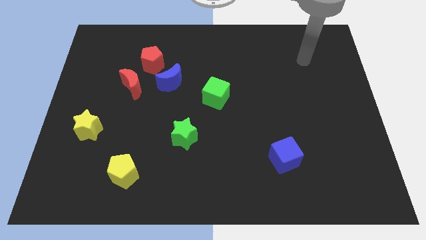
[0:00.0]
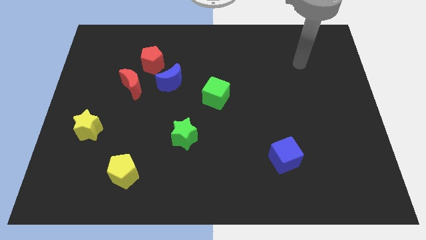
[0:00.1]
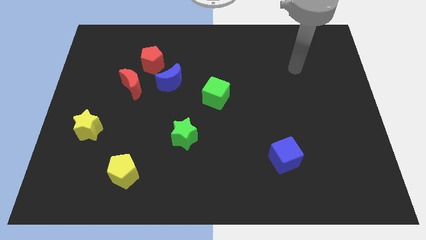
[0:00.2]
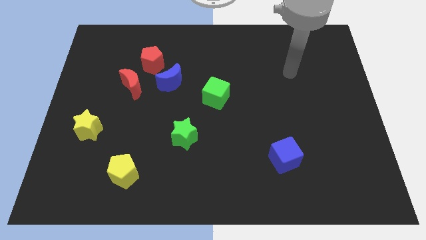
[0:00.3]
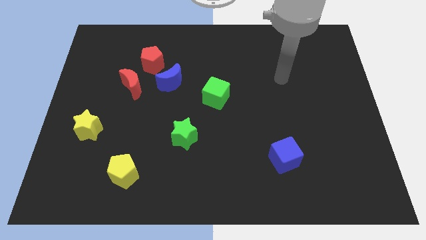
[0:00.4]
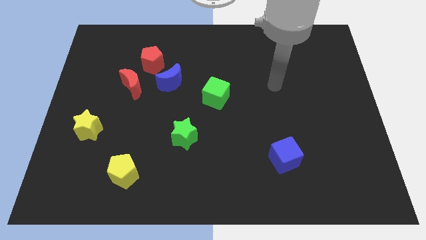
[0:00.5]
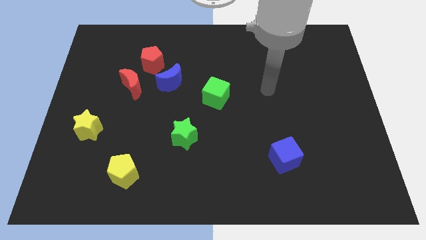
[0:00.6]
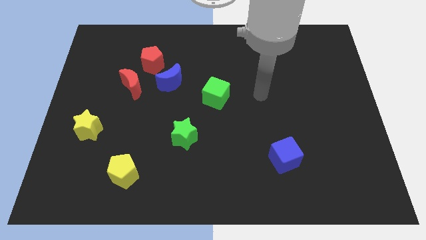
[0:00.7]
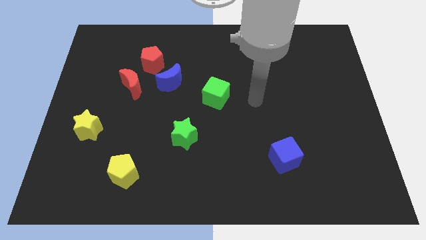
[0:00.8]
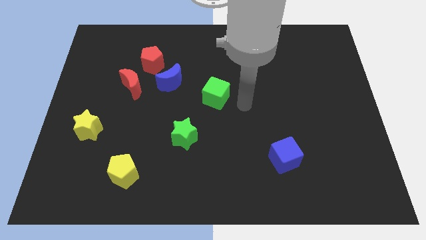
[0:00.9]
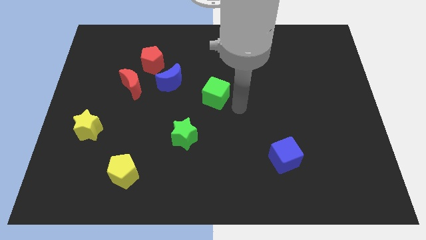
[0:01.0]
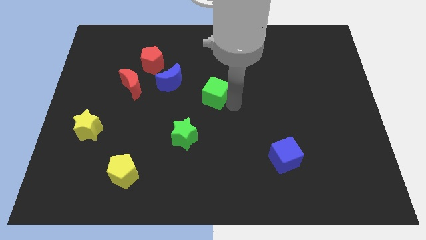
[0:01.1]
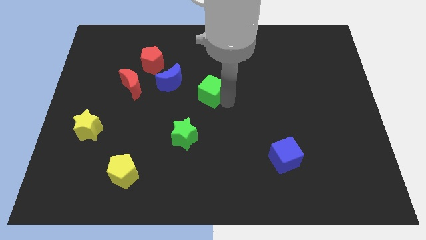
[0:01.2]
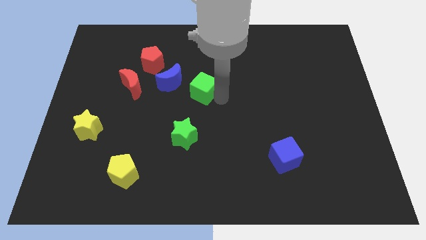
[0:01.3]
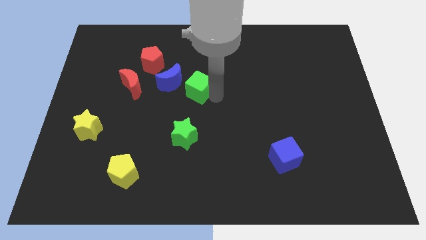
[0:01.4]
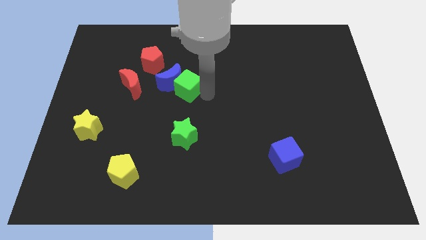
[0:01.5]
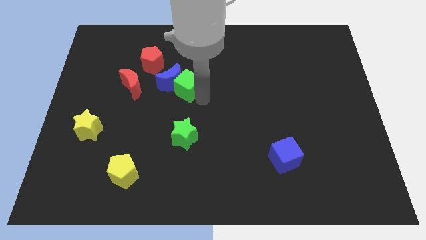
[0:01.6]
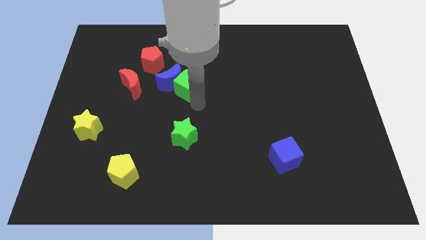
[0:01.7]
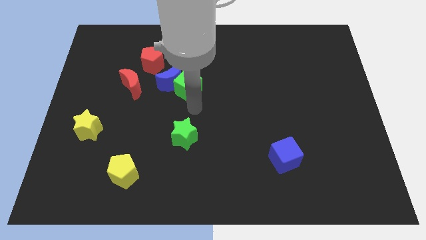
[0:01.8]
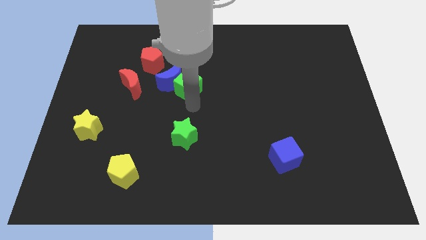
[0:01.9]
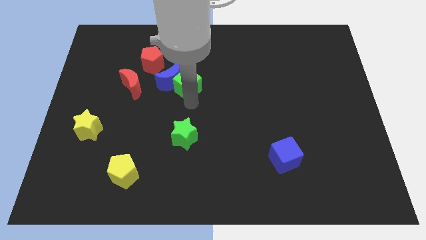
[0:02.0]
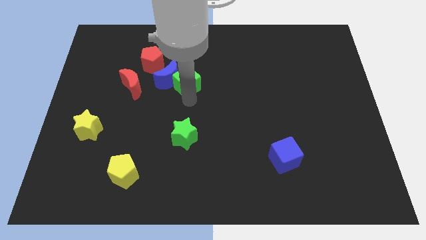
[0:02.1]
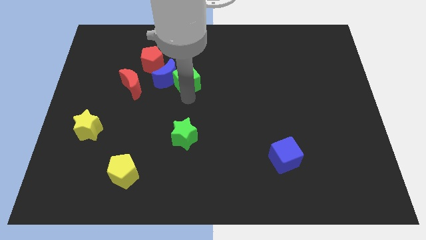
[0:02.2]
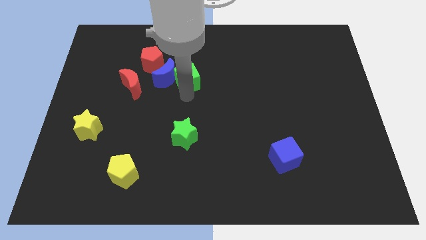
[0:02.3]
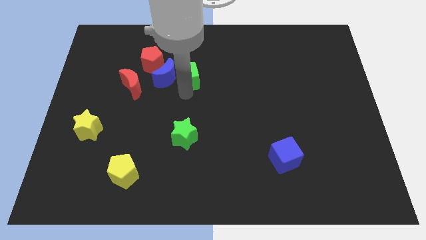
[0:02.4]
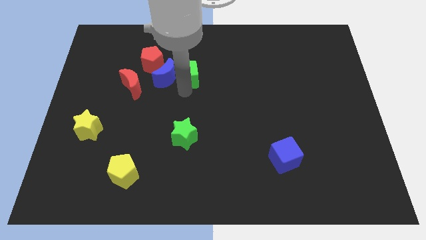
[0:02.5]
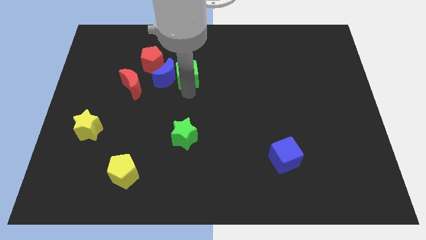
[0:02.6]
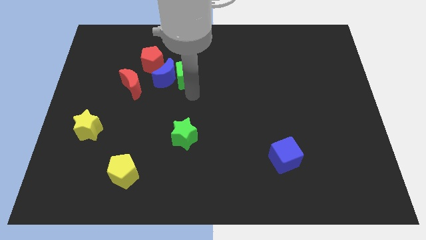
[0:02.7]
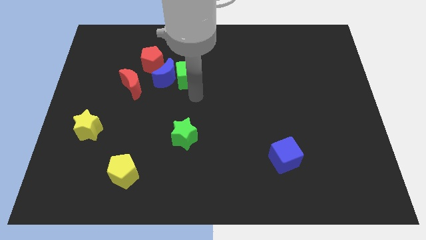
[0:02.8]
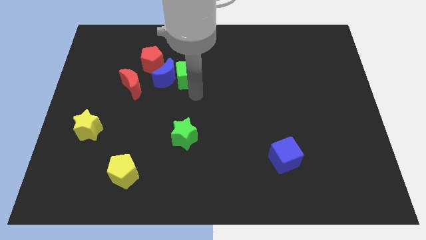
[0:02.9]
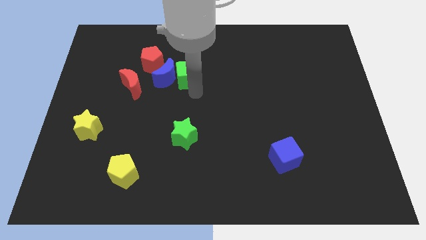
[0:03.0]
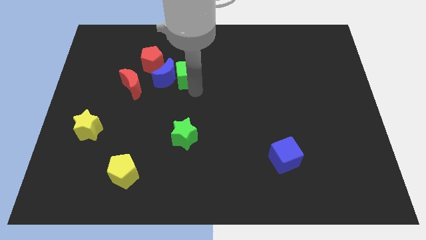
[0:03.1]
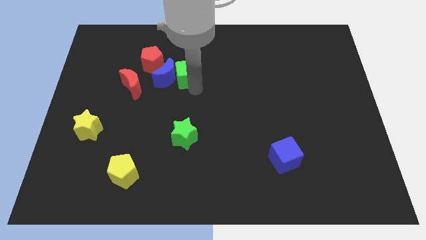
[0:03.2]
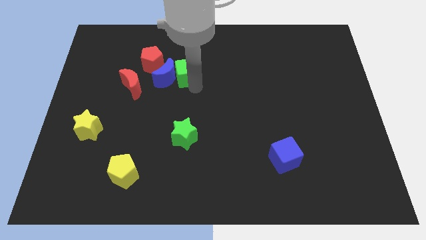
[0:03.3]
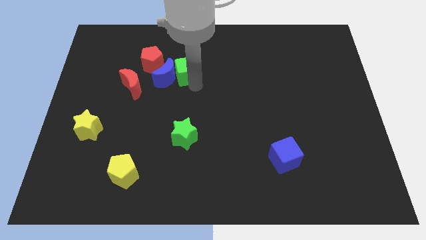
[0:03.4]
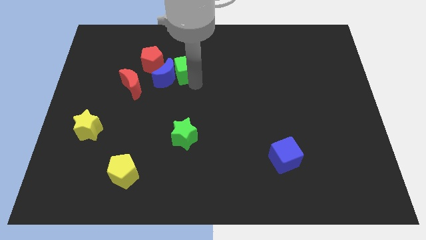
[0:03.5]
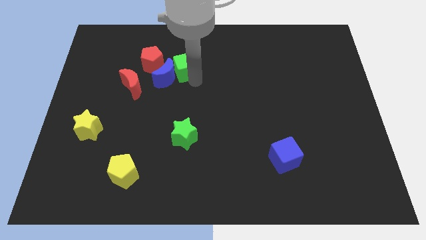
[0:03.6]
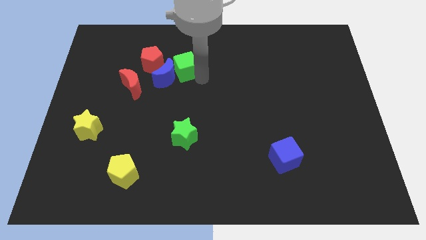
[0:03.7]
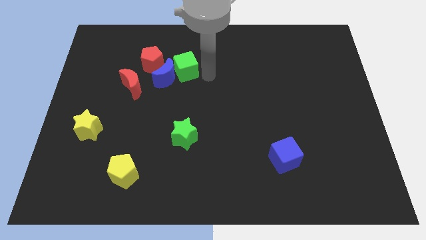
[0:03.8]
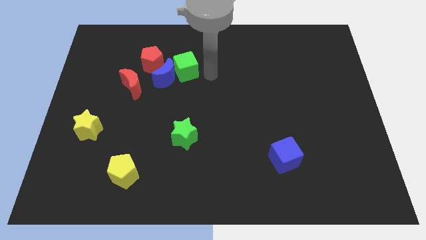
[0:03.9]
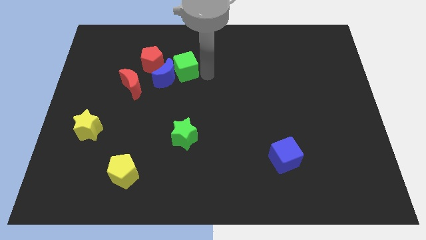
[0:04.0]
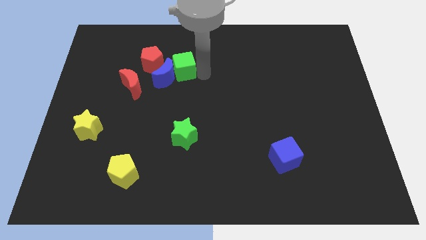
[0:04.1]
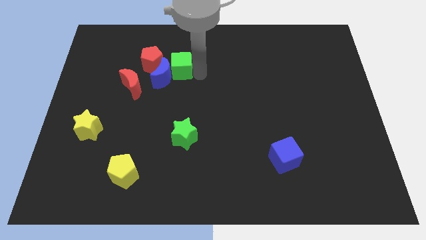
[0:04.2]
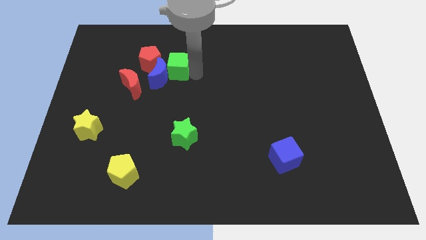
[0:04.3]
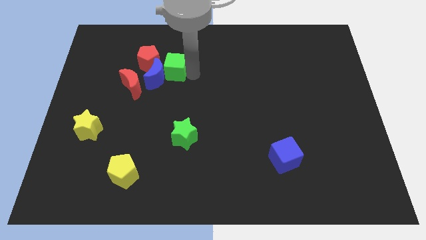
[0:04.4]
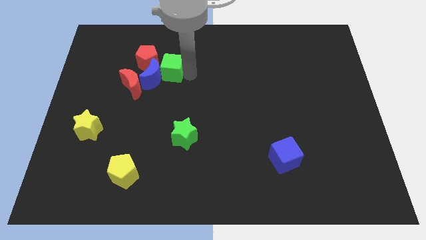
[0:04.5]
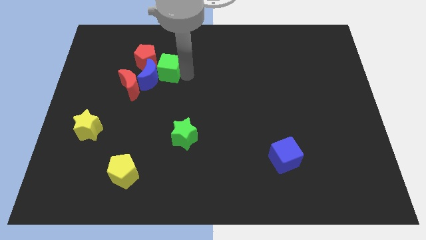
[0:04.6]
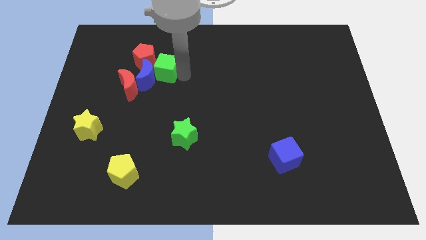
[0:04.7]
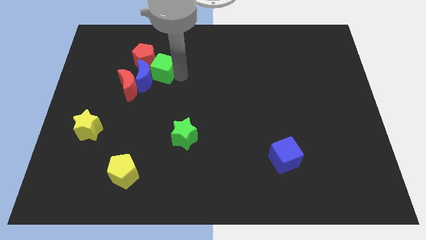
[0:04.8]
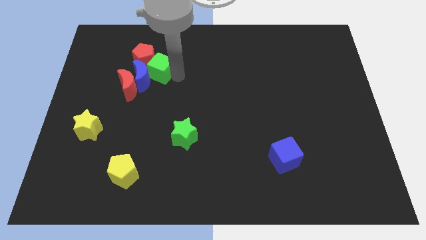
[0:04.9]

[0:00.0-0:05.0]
push the green cube close to the red pentagon

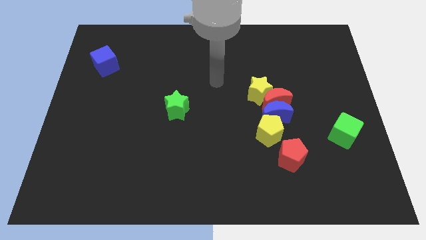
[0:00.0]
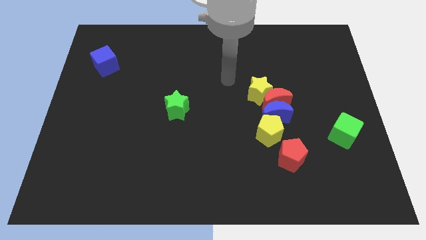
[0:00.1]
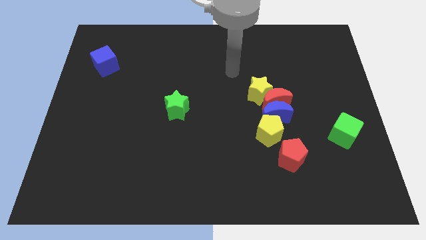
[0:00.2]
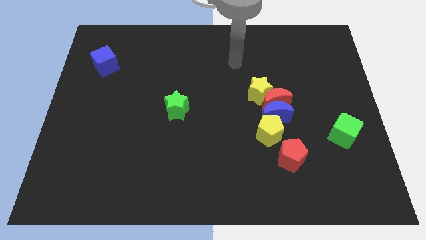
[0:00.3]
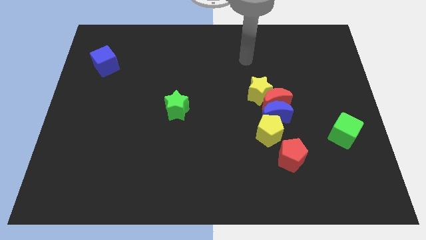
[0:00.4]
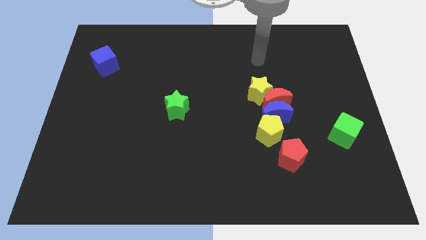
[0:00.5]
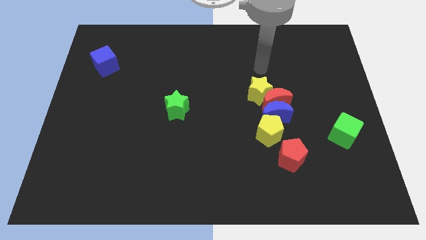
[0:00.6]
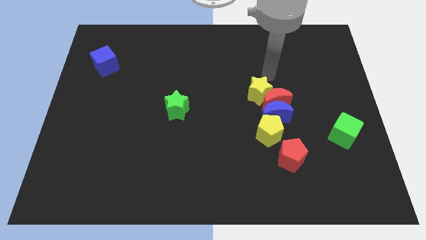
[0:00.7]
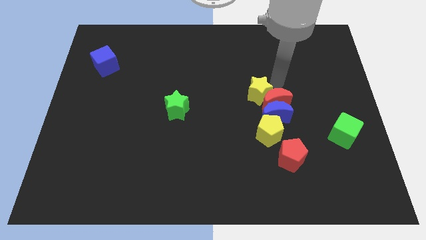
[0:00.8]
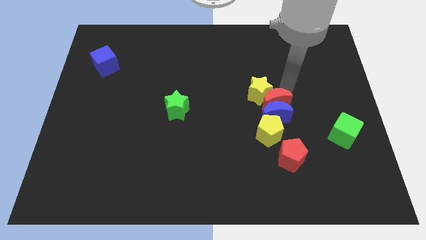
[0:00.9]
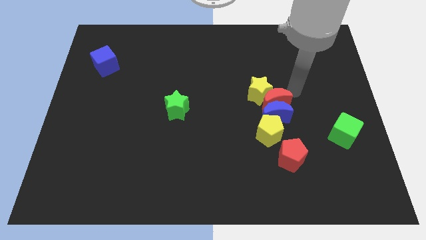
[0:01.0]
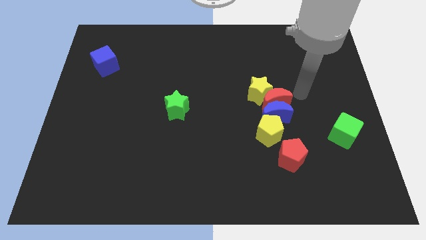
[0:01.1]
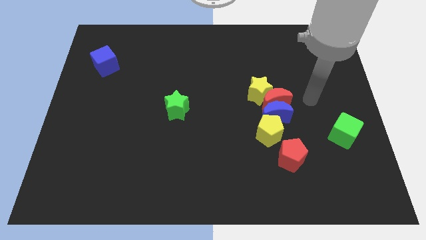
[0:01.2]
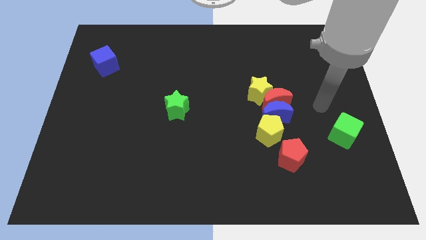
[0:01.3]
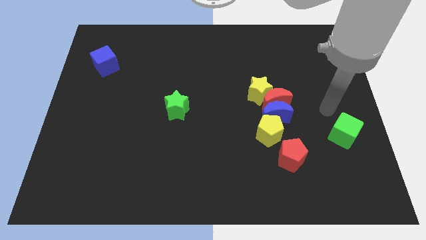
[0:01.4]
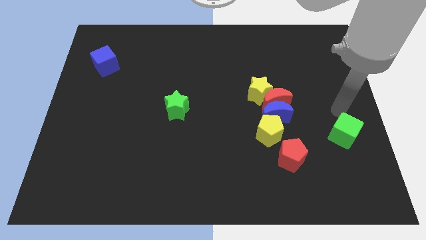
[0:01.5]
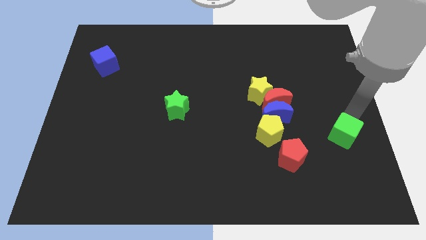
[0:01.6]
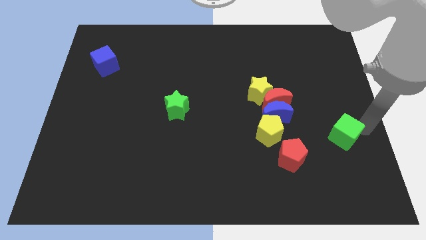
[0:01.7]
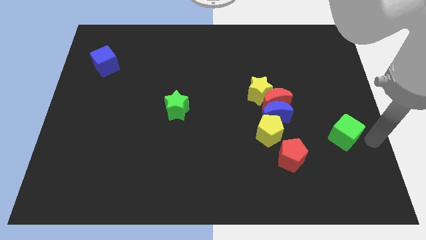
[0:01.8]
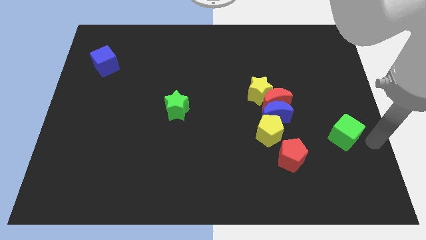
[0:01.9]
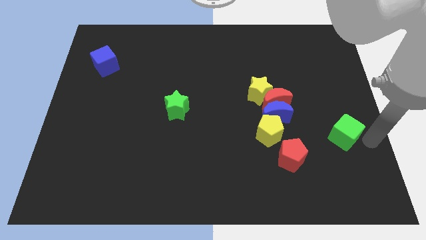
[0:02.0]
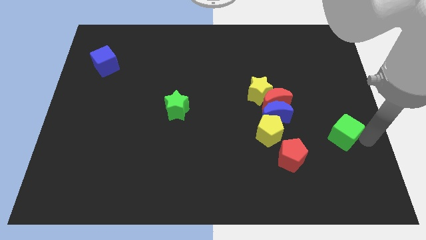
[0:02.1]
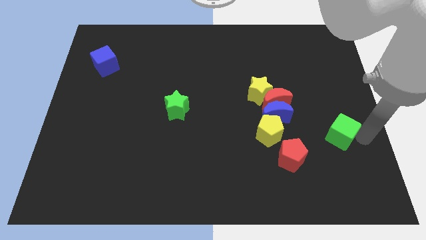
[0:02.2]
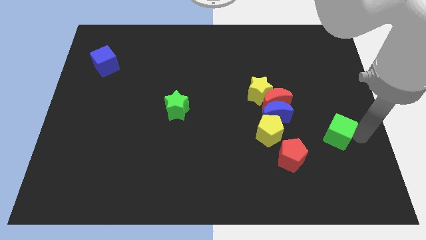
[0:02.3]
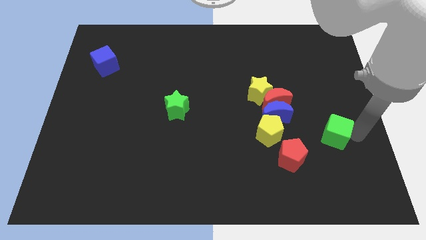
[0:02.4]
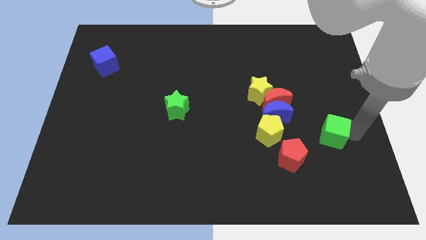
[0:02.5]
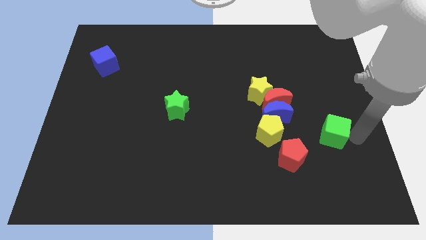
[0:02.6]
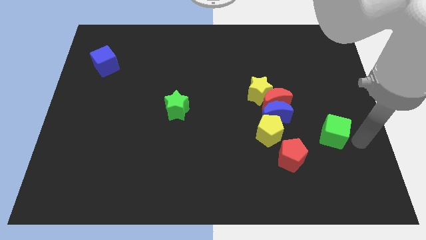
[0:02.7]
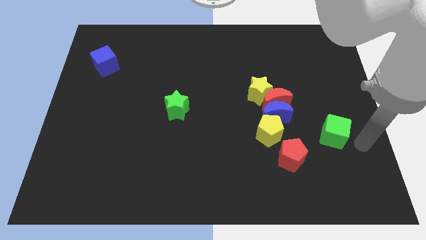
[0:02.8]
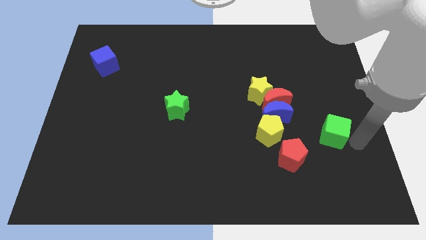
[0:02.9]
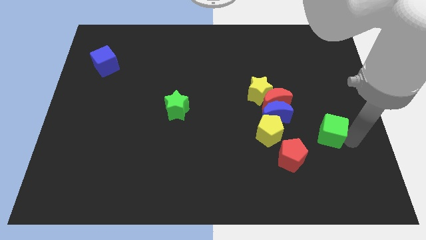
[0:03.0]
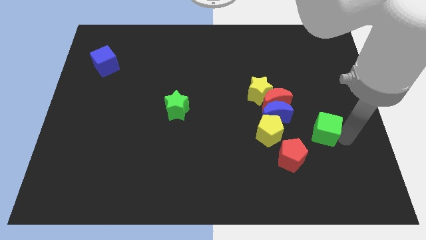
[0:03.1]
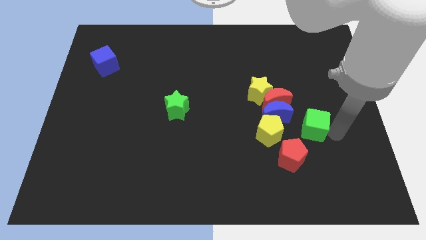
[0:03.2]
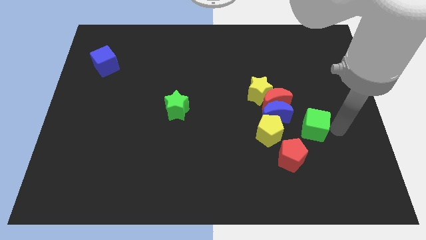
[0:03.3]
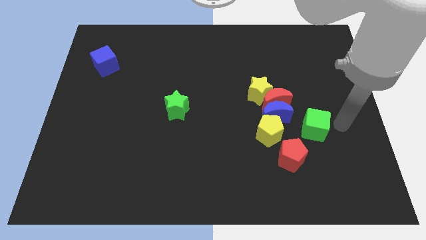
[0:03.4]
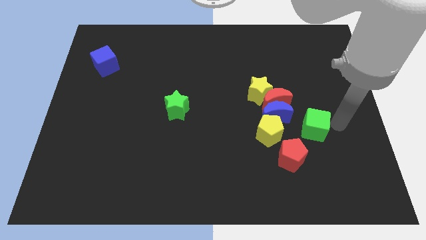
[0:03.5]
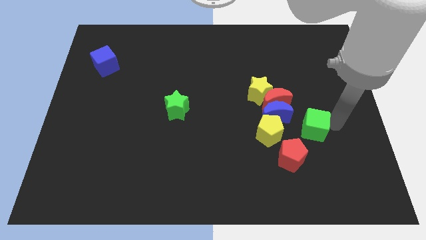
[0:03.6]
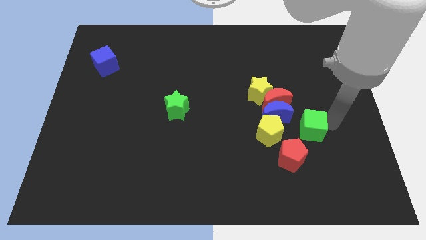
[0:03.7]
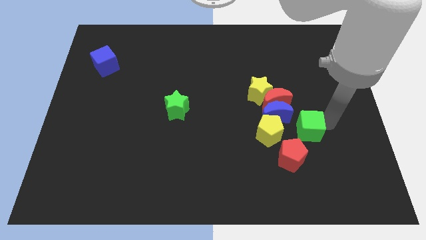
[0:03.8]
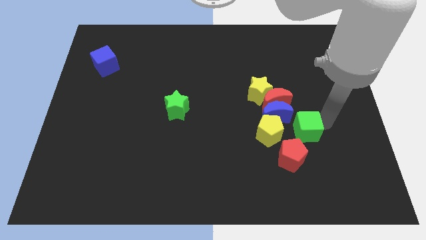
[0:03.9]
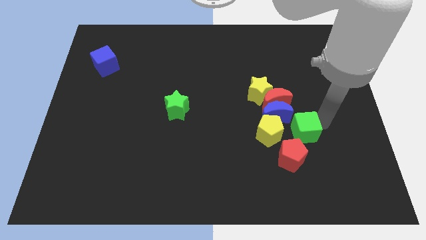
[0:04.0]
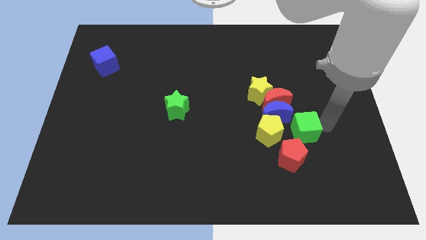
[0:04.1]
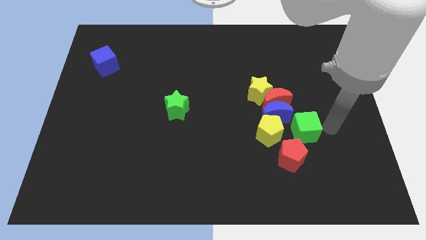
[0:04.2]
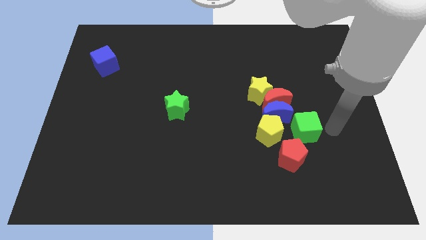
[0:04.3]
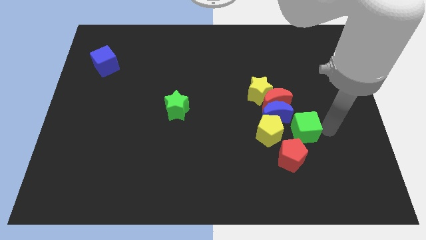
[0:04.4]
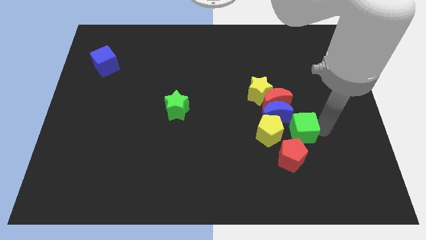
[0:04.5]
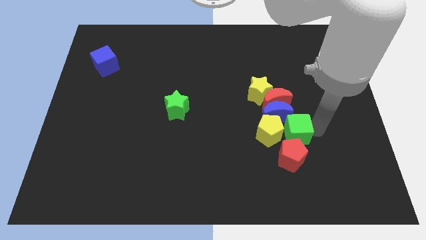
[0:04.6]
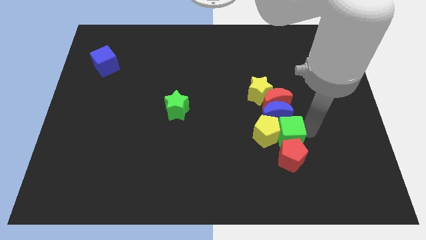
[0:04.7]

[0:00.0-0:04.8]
push the green cube towards the yellow pentagon
